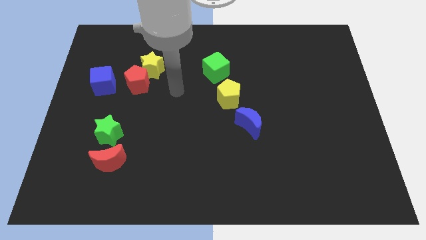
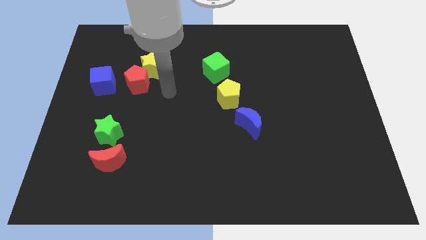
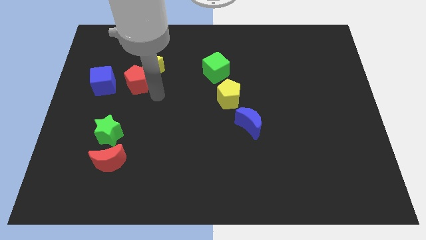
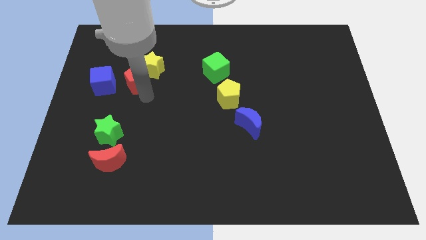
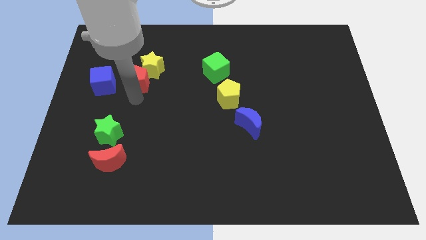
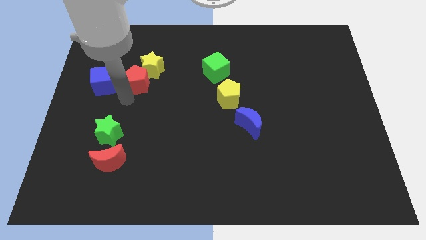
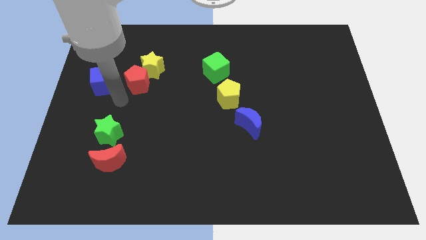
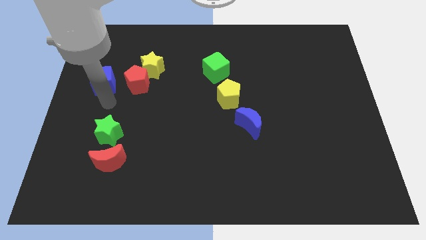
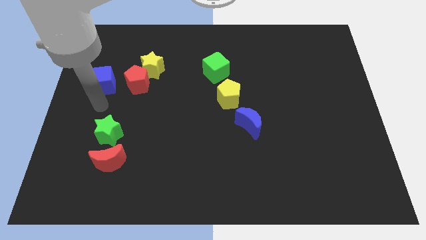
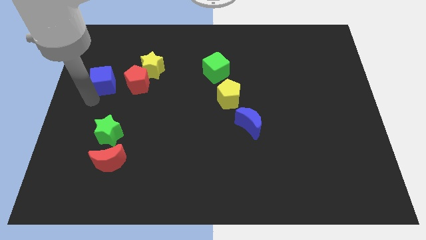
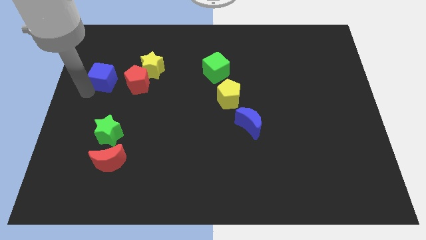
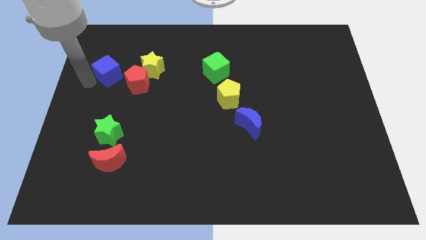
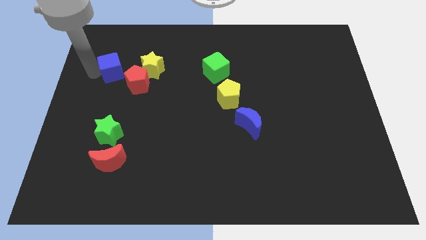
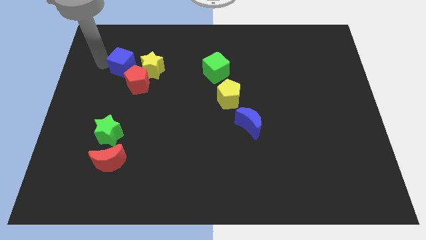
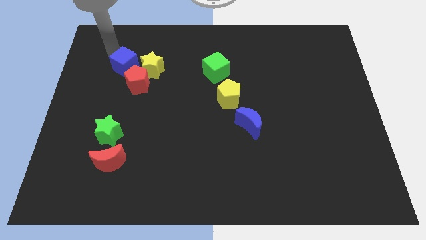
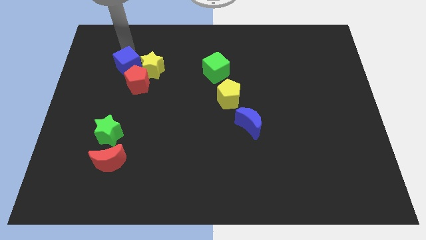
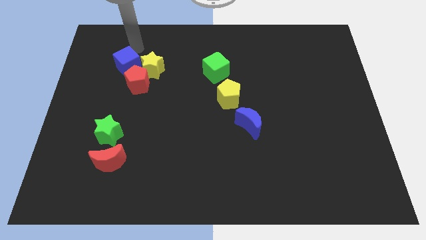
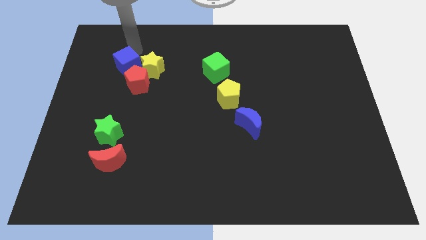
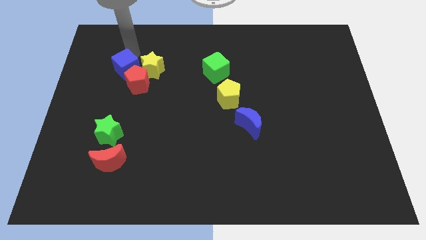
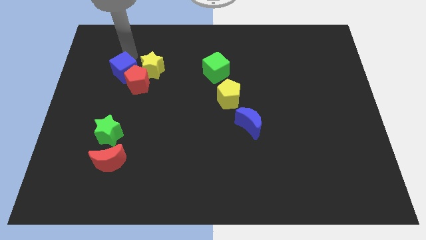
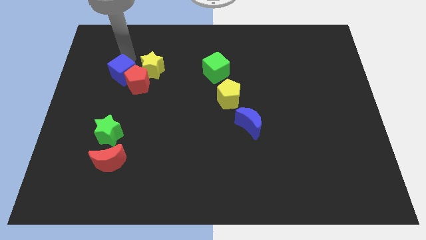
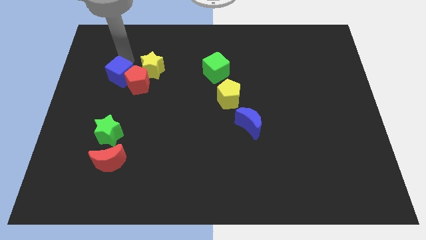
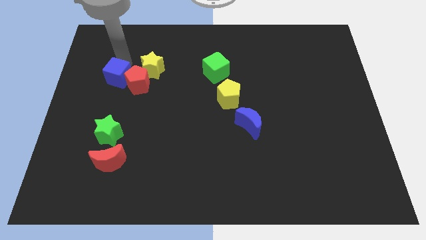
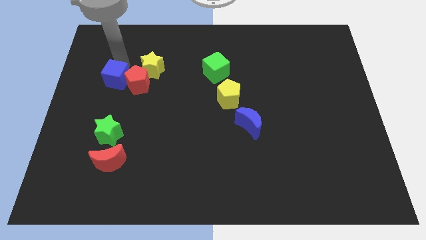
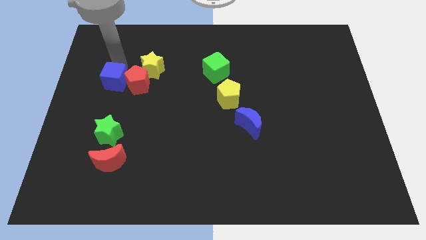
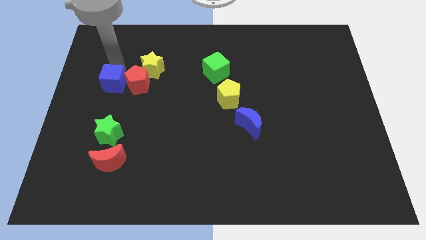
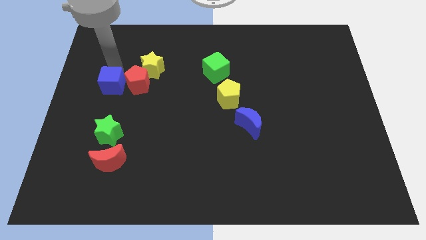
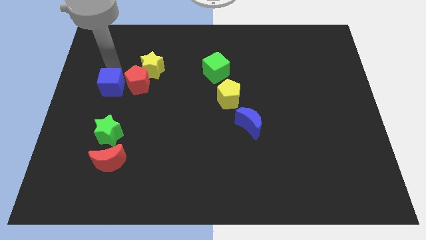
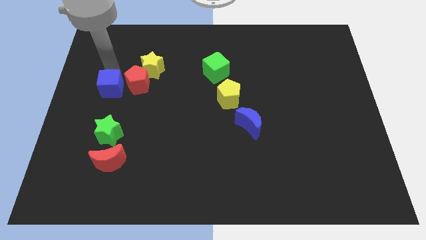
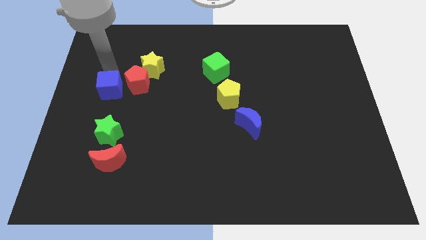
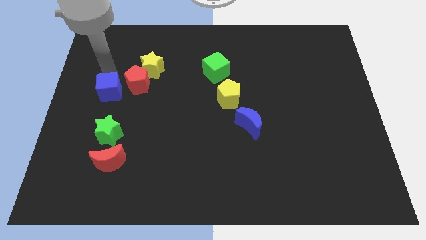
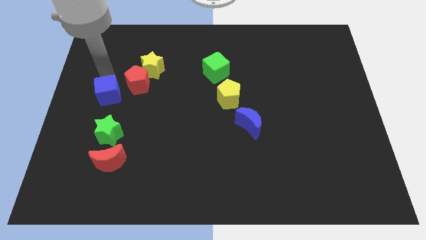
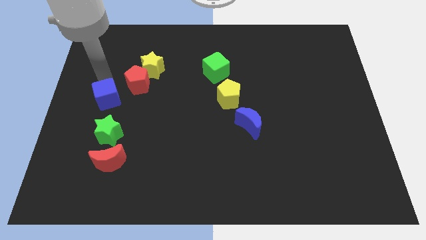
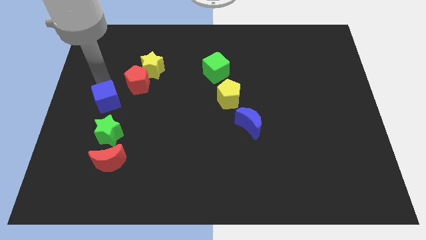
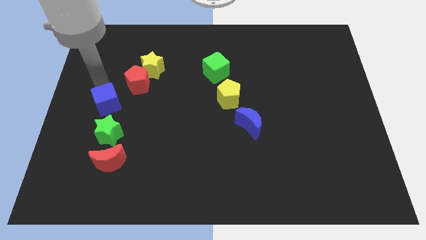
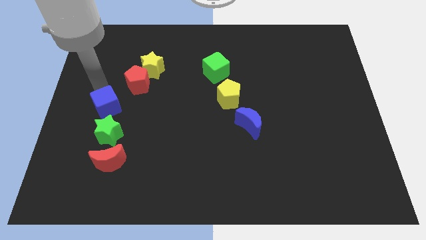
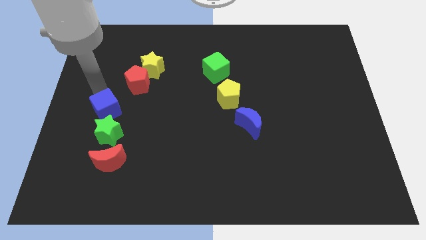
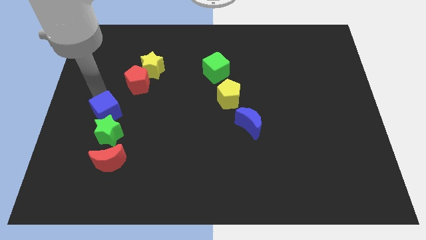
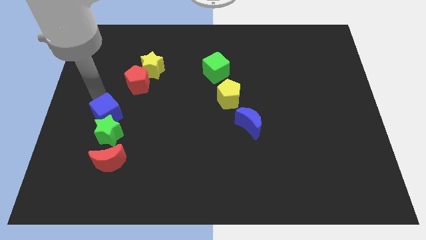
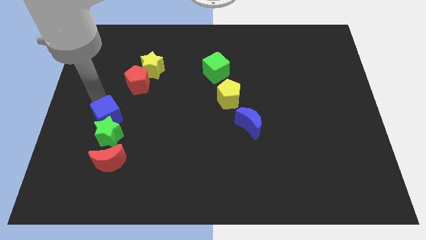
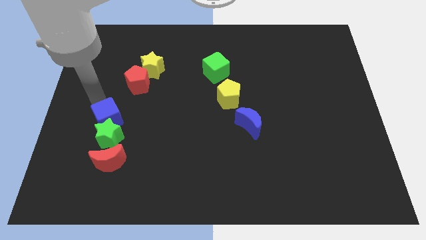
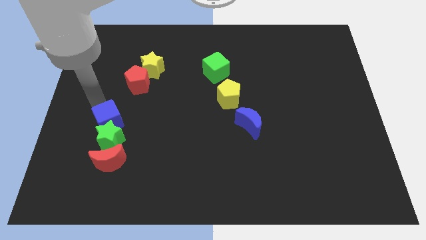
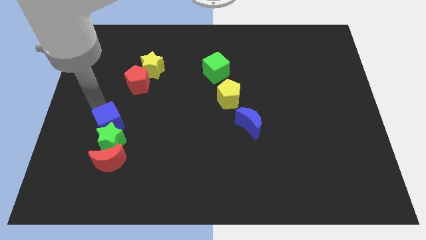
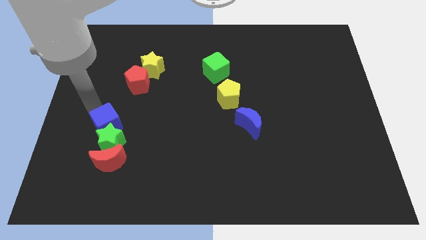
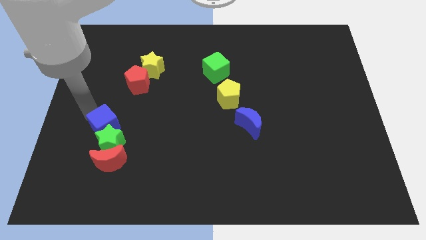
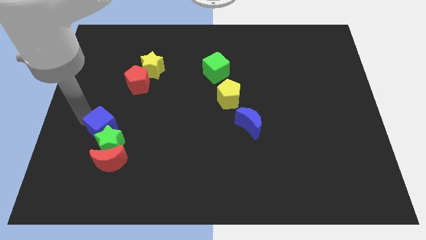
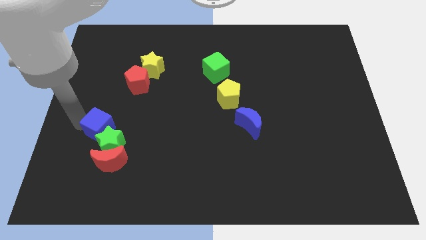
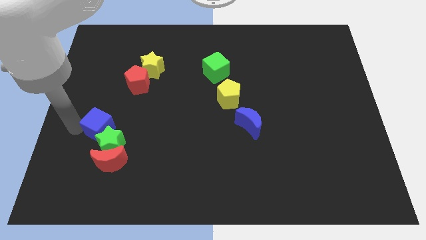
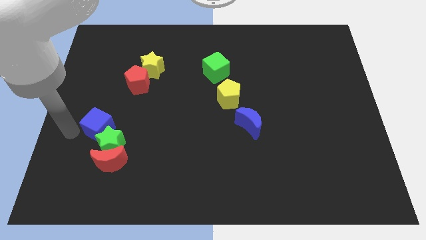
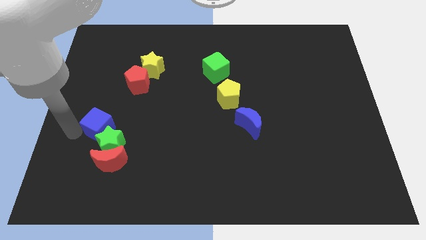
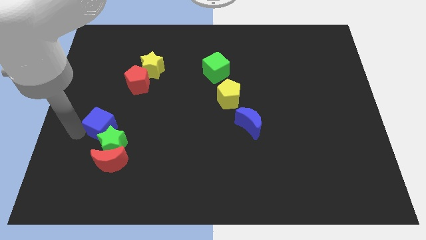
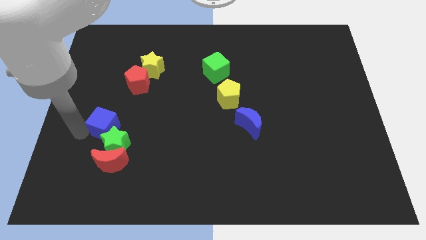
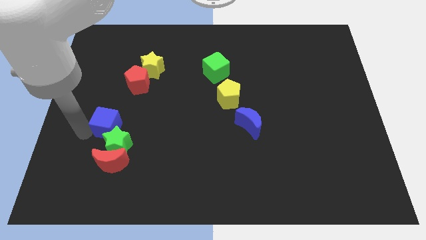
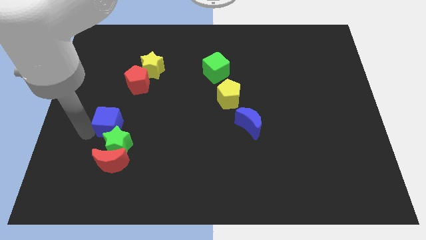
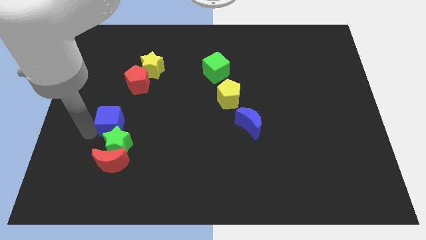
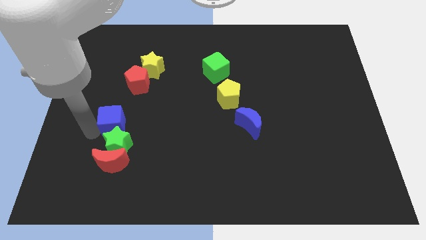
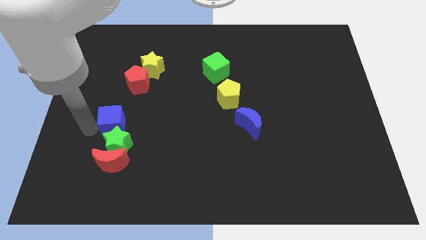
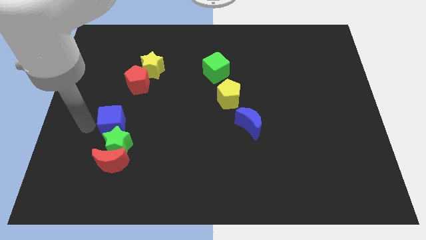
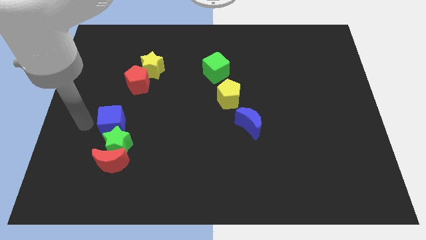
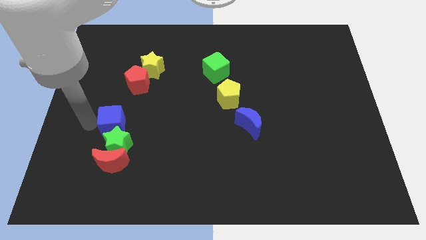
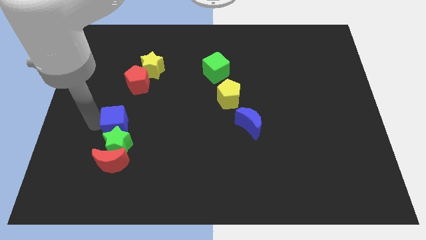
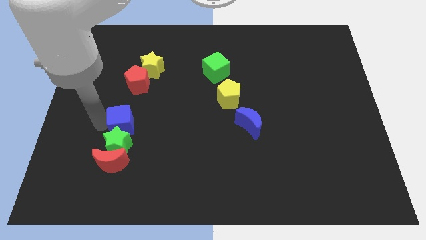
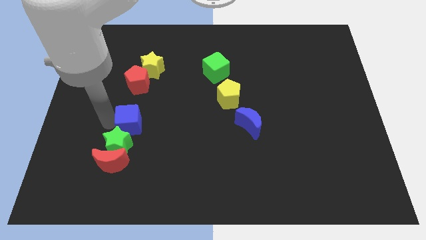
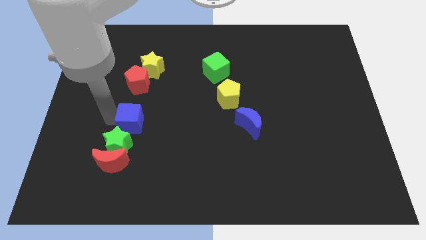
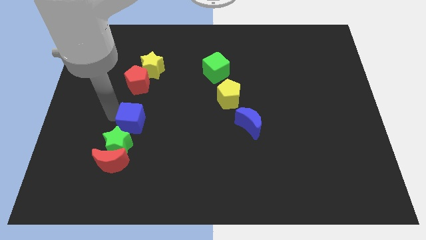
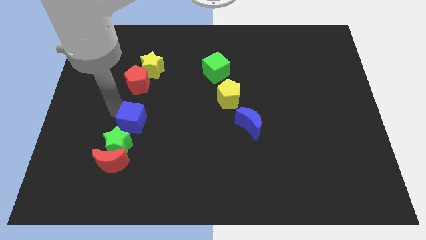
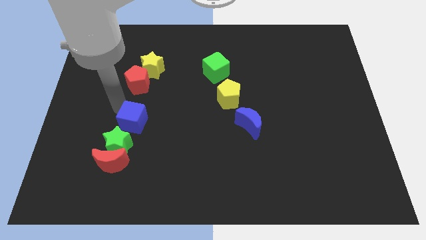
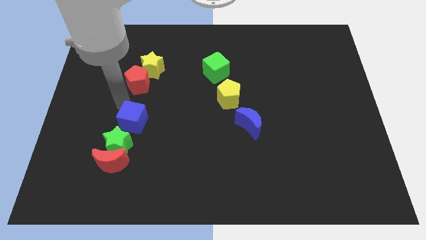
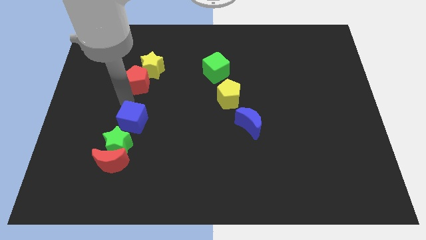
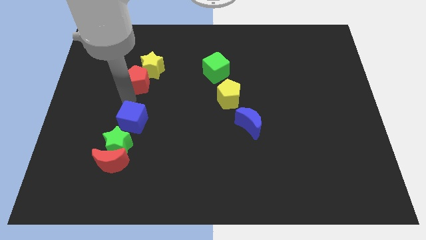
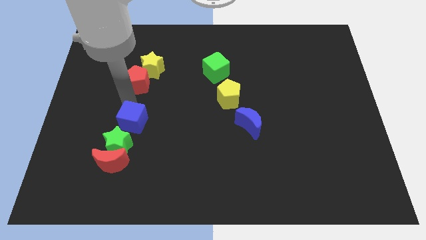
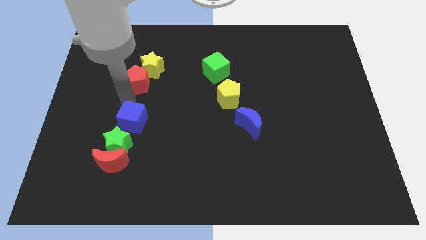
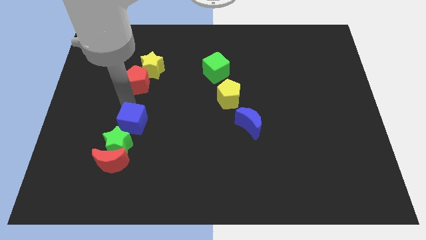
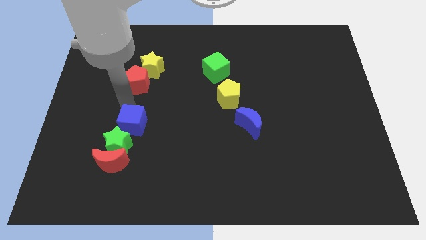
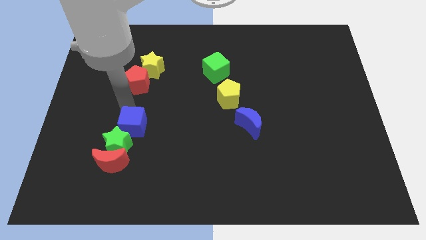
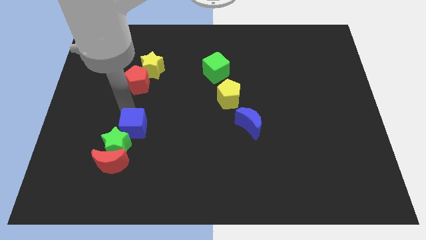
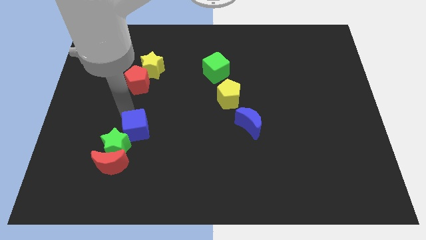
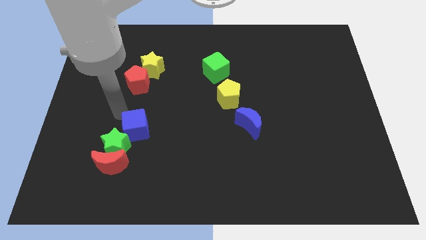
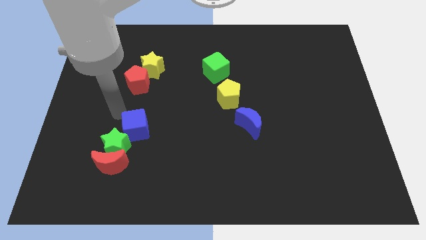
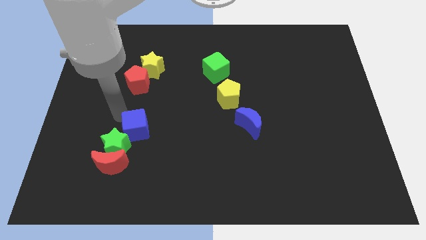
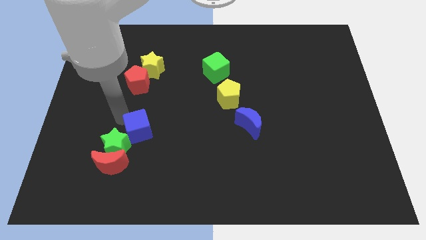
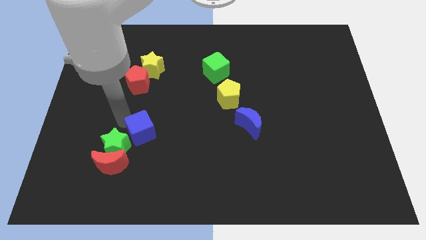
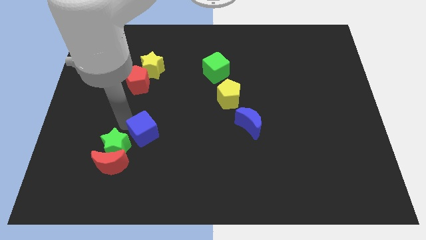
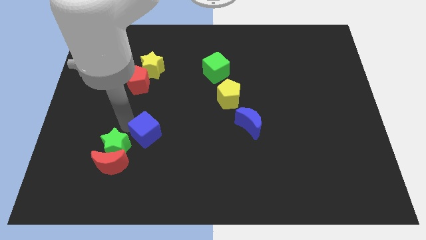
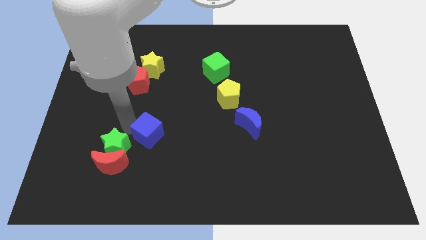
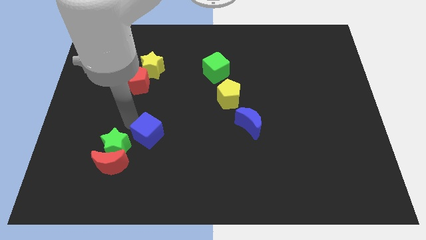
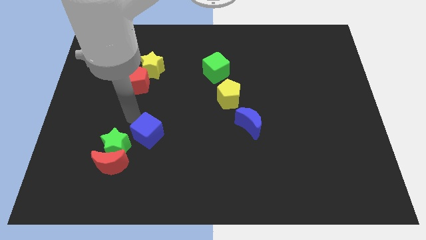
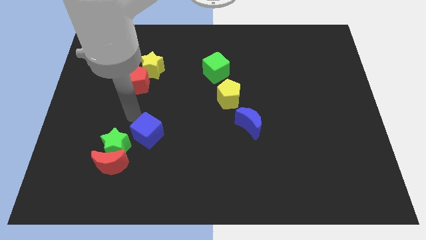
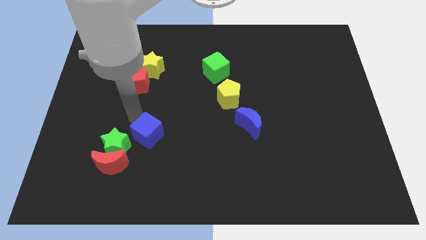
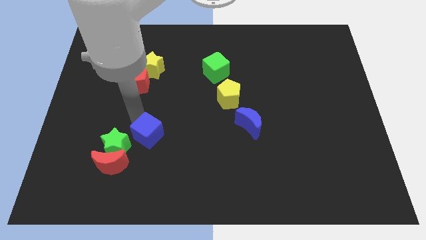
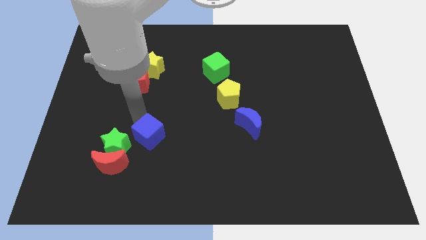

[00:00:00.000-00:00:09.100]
move the blue cube downwards and then right
